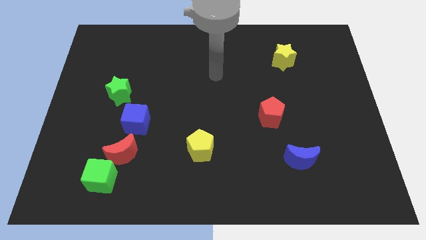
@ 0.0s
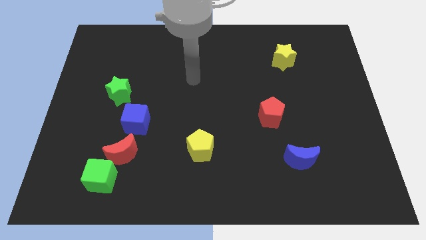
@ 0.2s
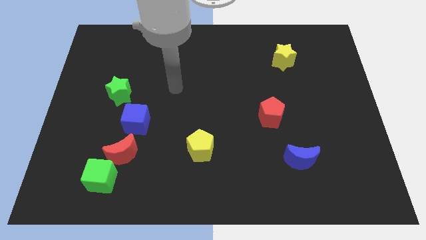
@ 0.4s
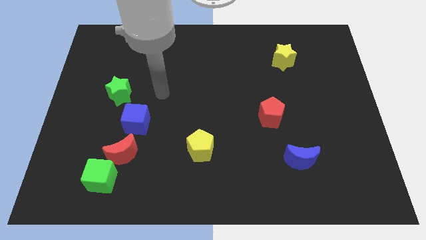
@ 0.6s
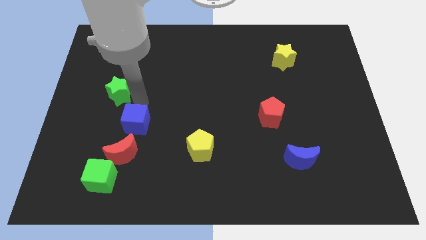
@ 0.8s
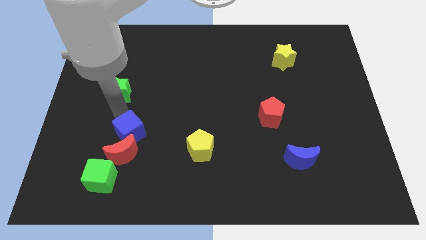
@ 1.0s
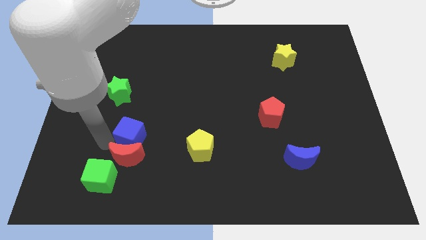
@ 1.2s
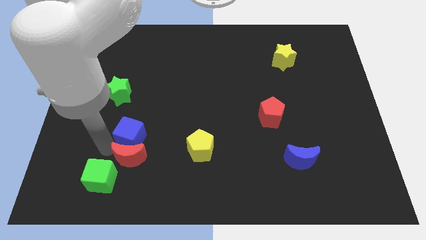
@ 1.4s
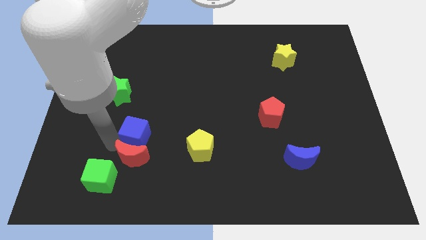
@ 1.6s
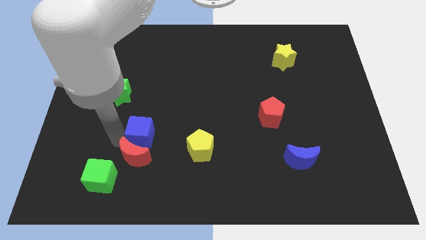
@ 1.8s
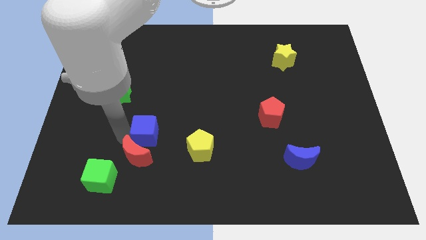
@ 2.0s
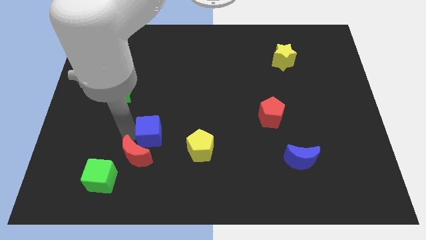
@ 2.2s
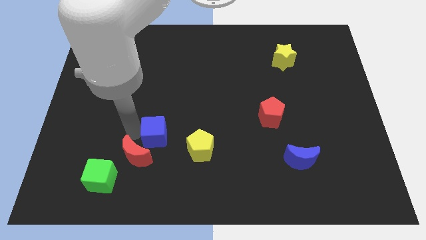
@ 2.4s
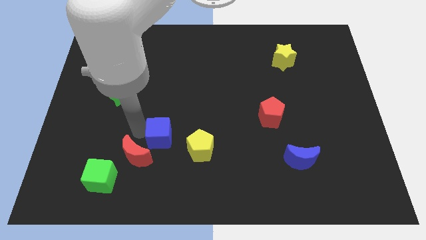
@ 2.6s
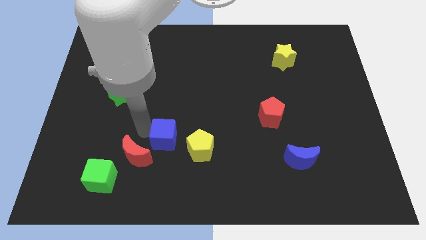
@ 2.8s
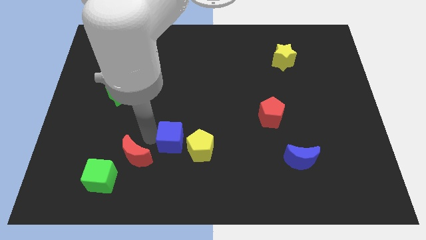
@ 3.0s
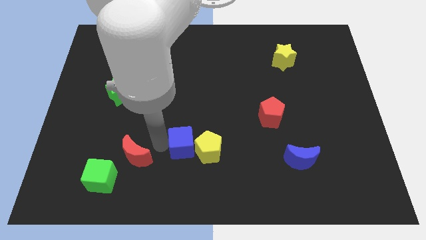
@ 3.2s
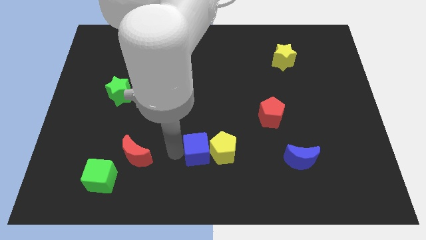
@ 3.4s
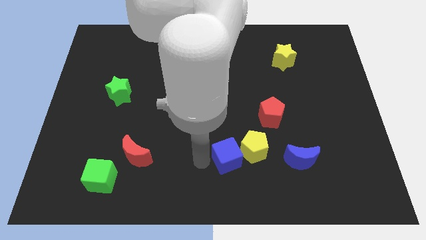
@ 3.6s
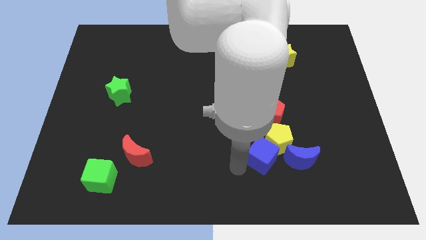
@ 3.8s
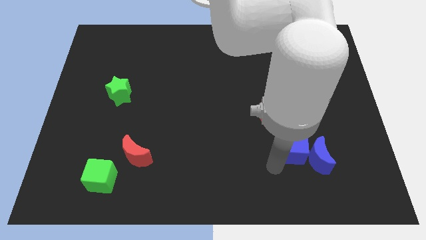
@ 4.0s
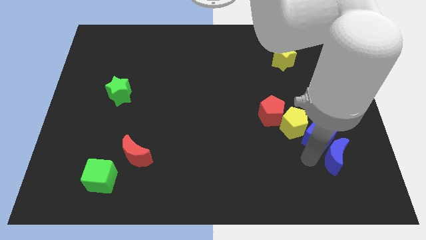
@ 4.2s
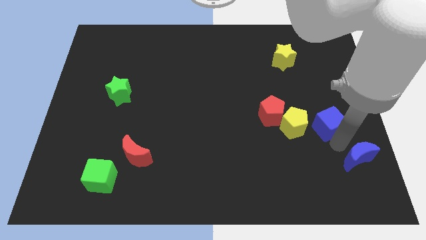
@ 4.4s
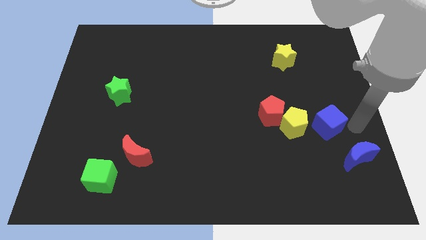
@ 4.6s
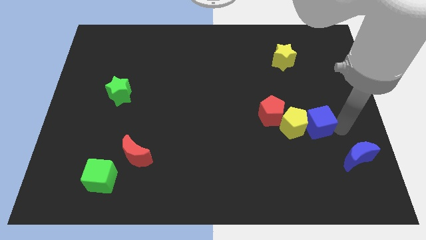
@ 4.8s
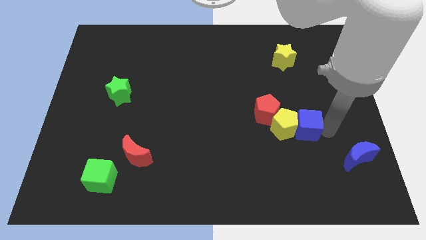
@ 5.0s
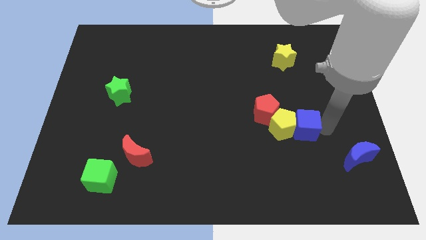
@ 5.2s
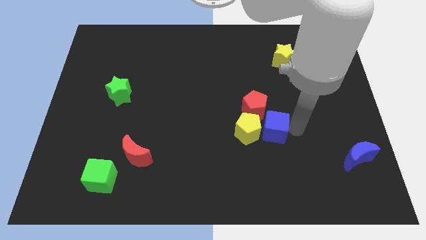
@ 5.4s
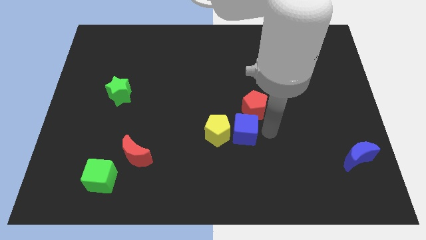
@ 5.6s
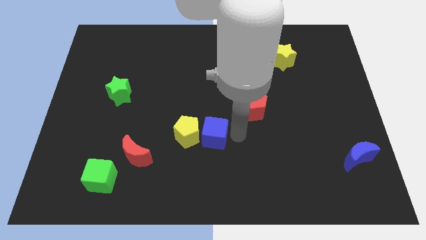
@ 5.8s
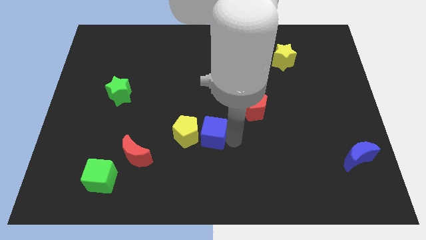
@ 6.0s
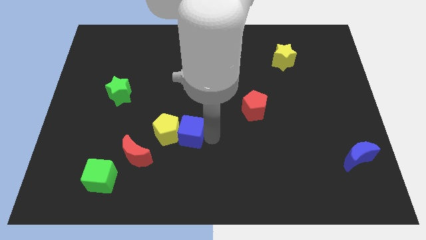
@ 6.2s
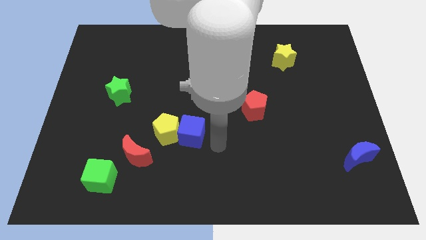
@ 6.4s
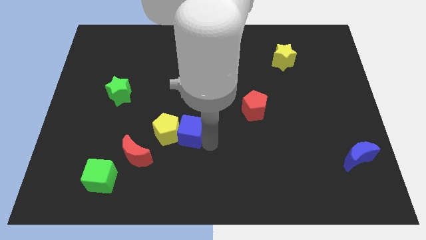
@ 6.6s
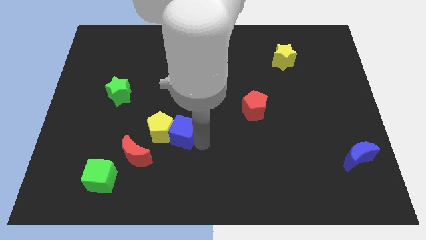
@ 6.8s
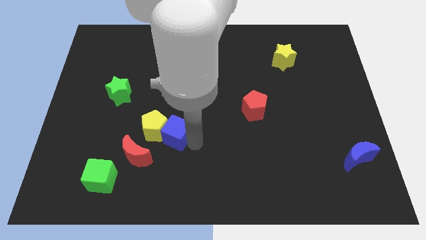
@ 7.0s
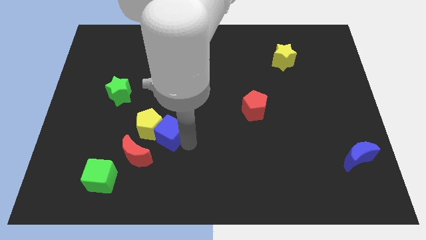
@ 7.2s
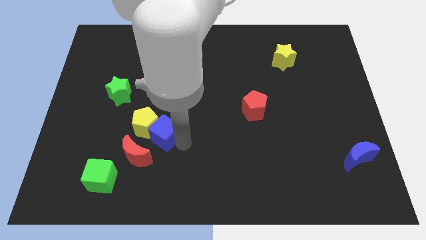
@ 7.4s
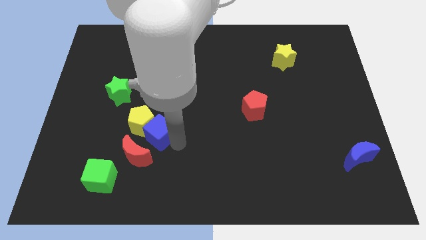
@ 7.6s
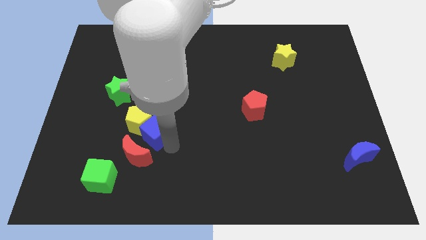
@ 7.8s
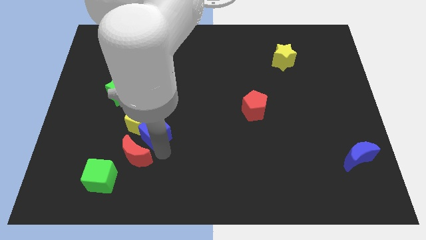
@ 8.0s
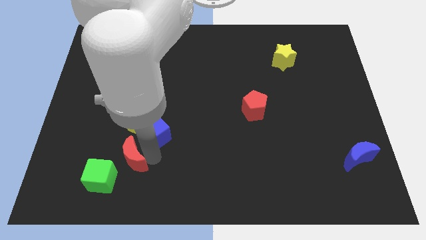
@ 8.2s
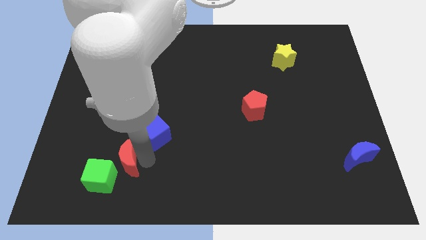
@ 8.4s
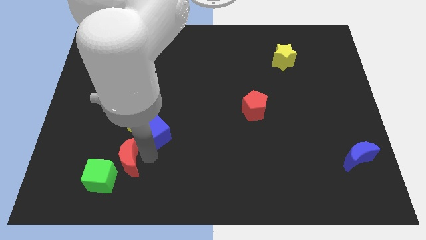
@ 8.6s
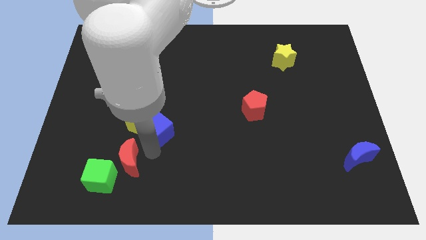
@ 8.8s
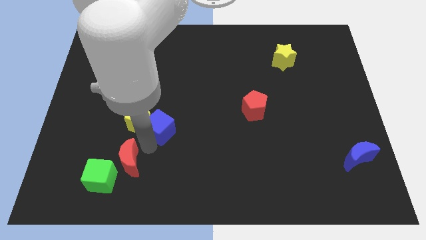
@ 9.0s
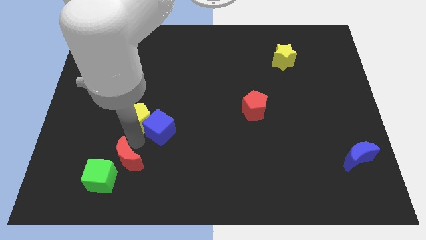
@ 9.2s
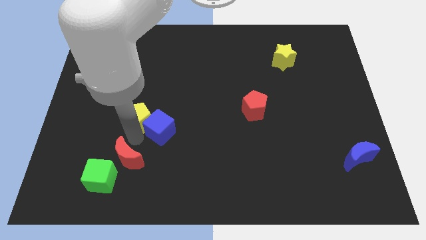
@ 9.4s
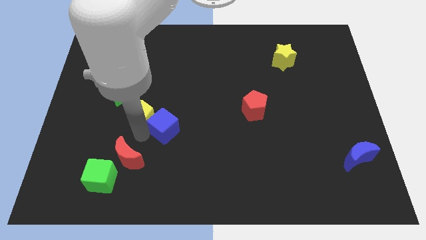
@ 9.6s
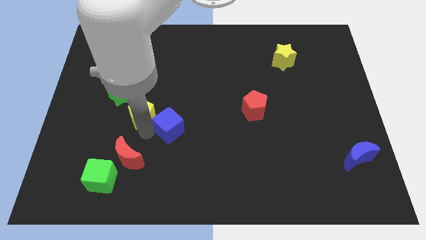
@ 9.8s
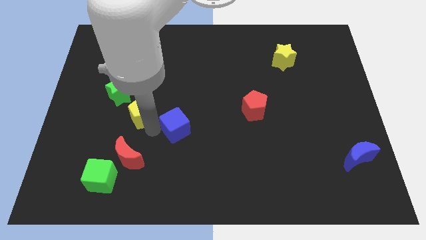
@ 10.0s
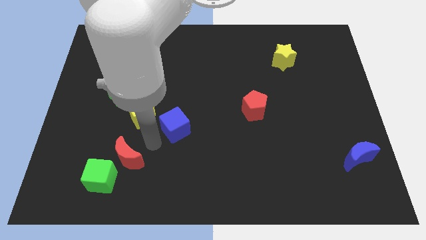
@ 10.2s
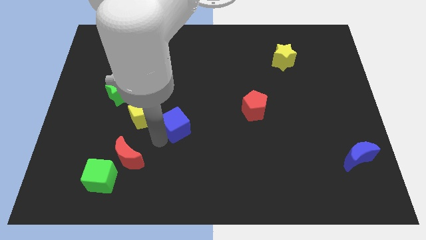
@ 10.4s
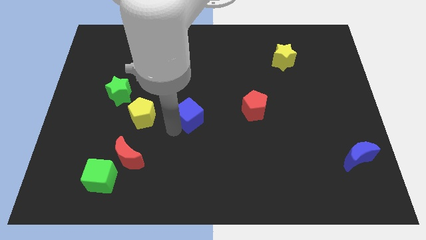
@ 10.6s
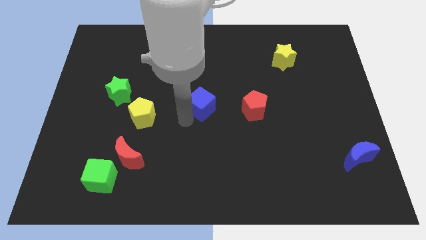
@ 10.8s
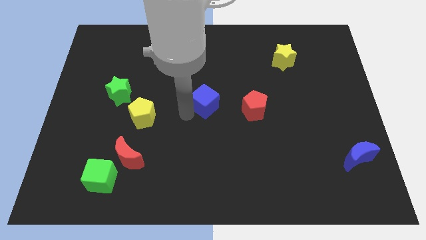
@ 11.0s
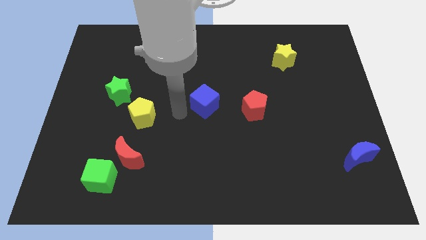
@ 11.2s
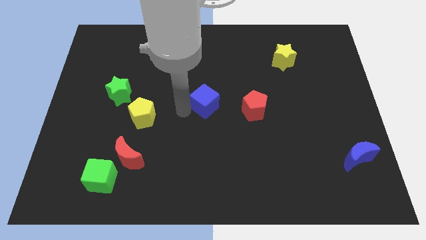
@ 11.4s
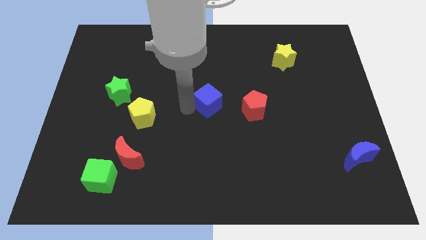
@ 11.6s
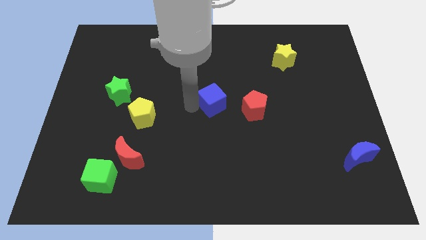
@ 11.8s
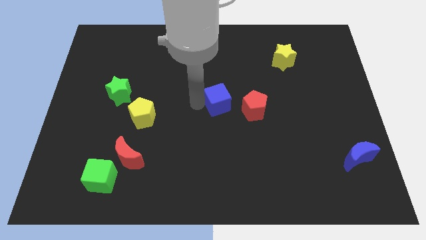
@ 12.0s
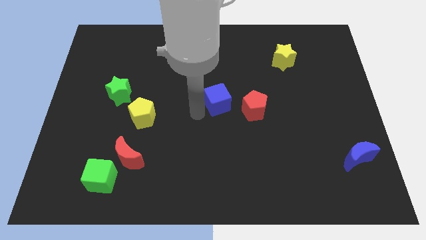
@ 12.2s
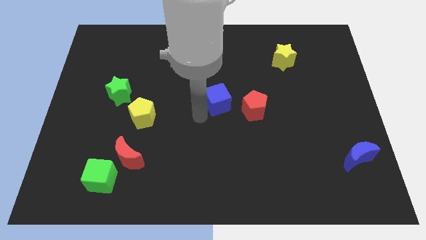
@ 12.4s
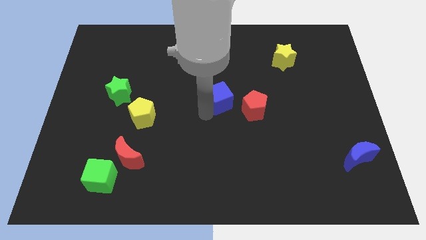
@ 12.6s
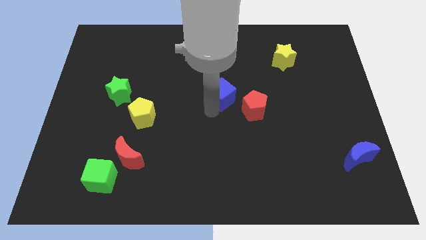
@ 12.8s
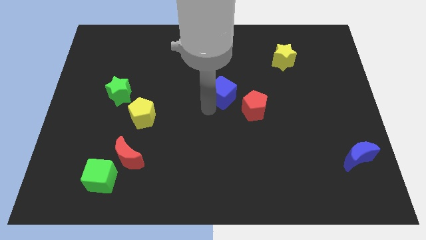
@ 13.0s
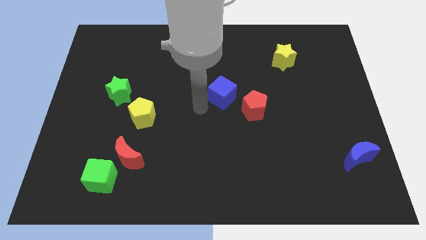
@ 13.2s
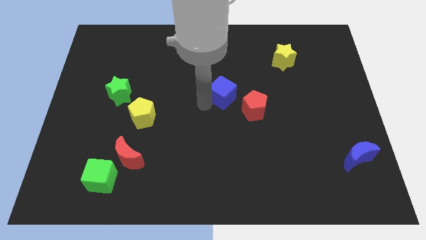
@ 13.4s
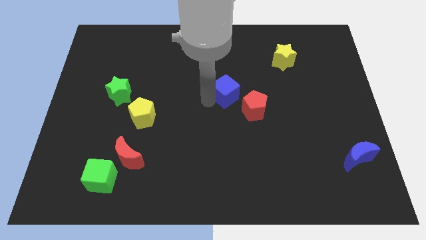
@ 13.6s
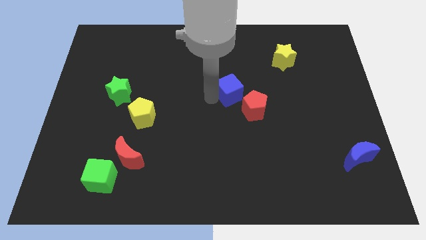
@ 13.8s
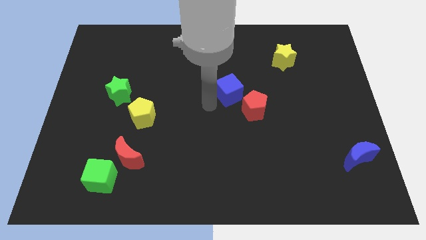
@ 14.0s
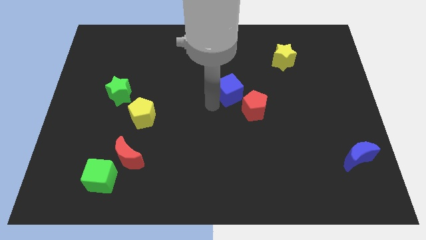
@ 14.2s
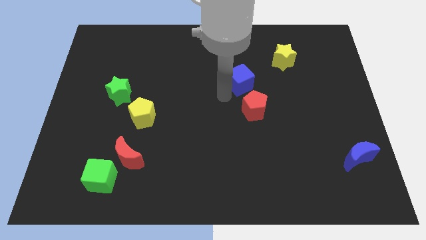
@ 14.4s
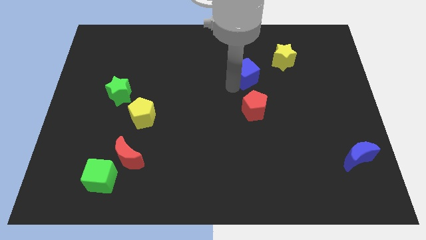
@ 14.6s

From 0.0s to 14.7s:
put the blue cube to the bottom left of the yellow star
